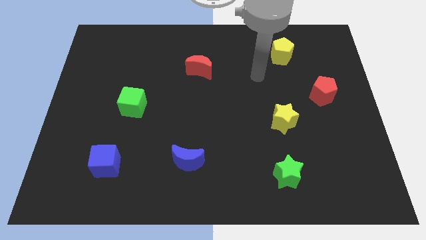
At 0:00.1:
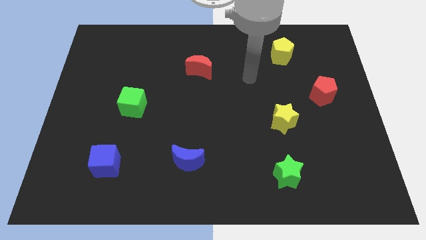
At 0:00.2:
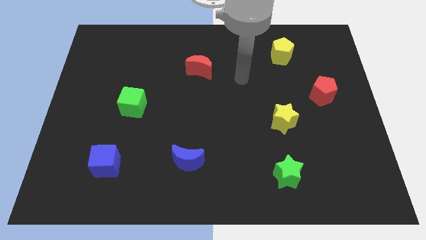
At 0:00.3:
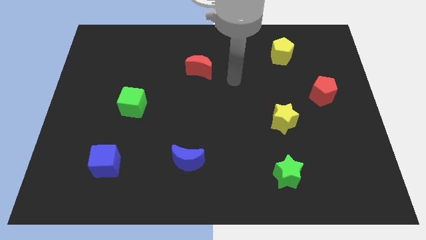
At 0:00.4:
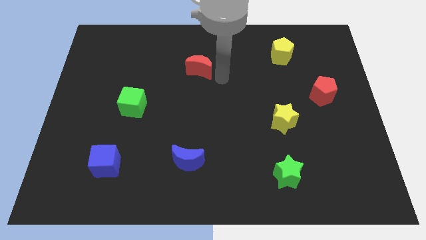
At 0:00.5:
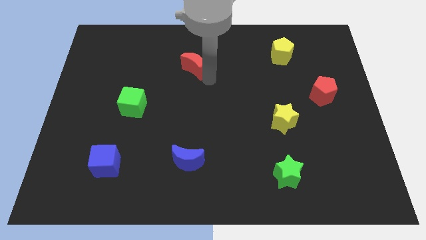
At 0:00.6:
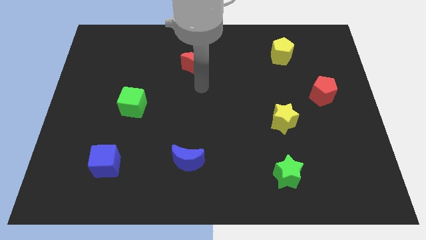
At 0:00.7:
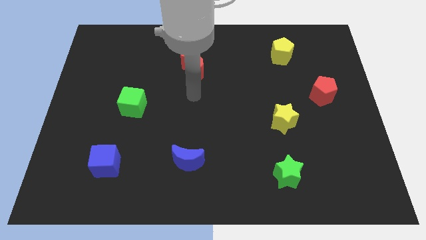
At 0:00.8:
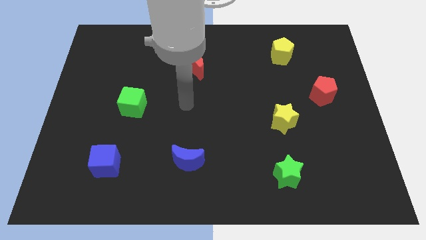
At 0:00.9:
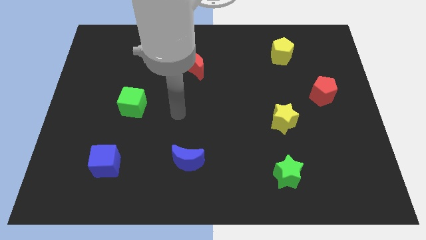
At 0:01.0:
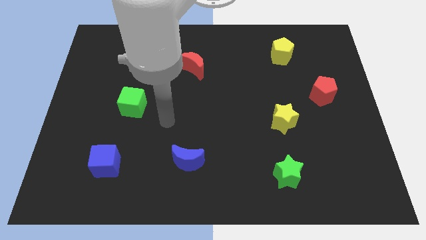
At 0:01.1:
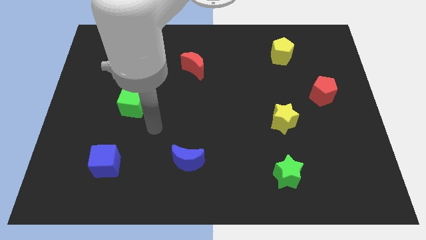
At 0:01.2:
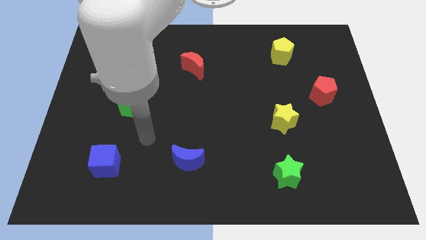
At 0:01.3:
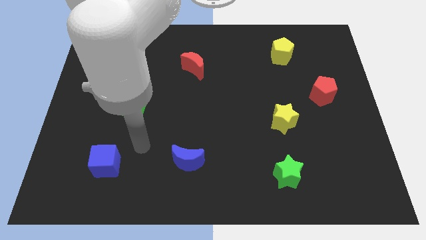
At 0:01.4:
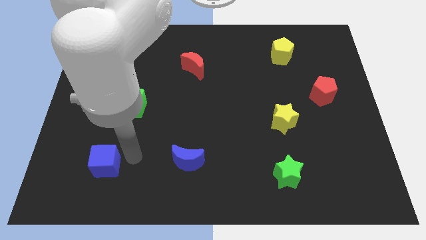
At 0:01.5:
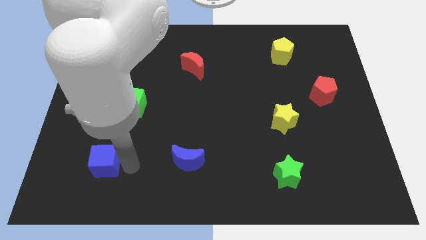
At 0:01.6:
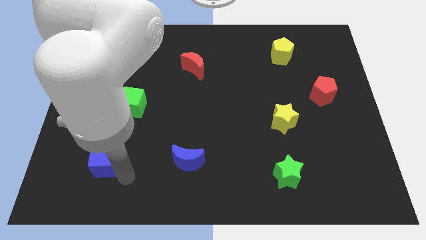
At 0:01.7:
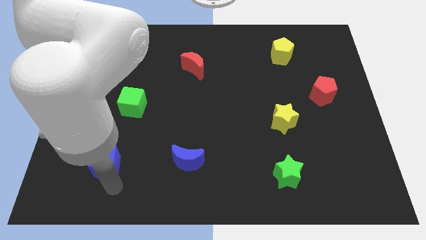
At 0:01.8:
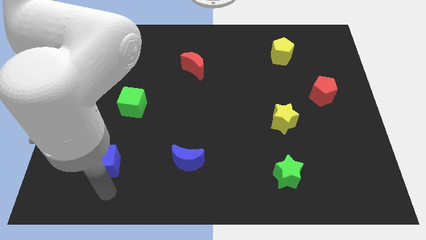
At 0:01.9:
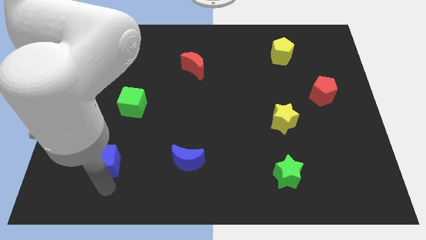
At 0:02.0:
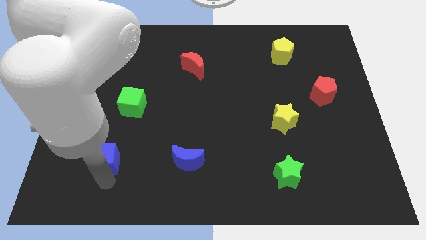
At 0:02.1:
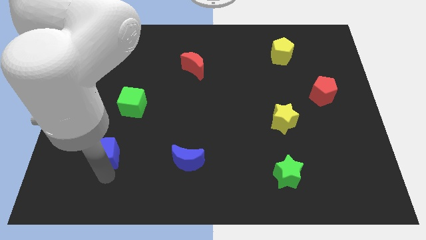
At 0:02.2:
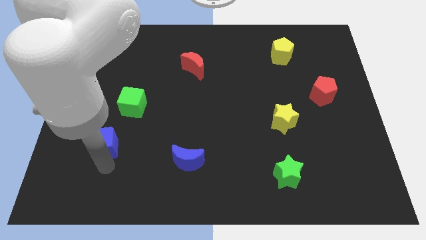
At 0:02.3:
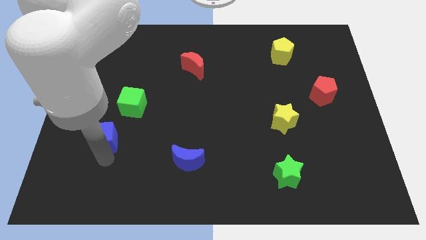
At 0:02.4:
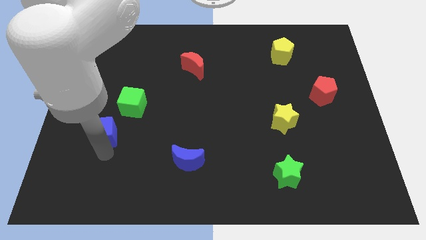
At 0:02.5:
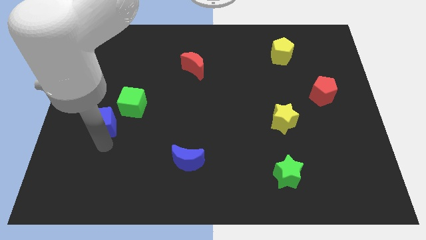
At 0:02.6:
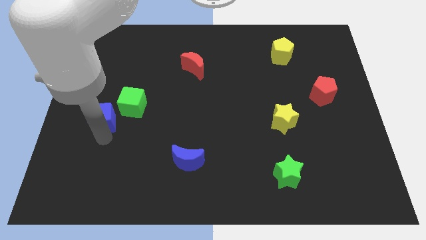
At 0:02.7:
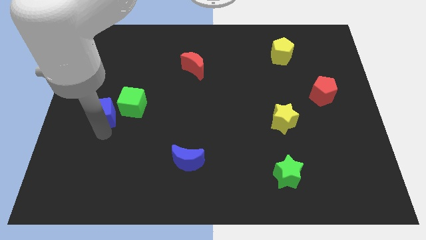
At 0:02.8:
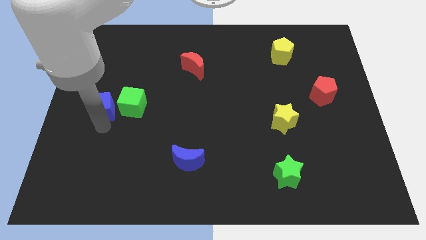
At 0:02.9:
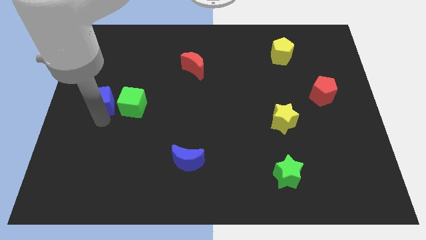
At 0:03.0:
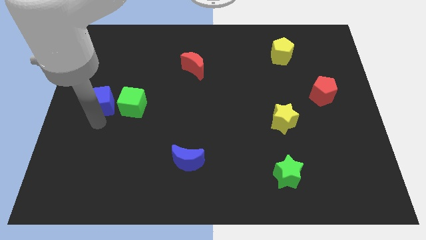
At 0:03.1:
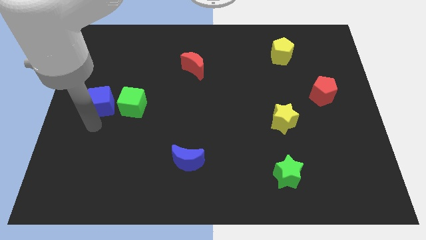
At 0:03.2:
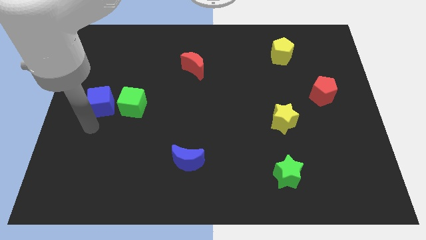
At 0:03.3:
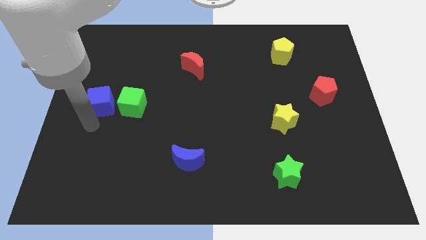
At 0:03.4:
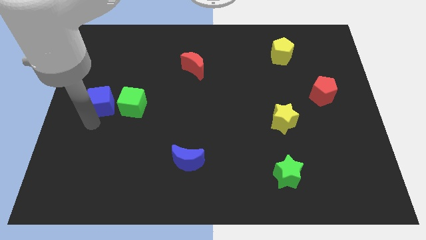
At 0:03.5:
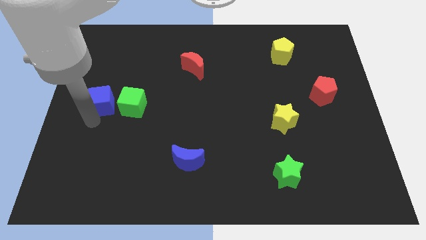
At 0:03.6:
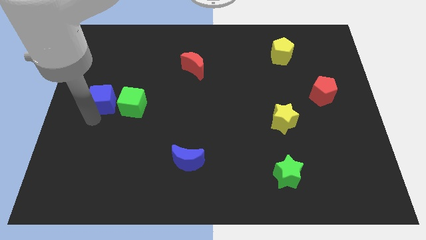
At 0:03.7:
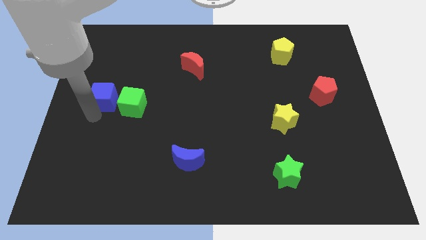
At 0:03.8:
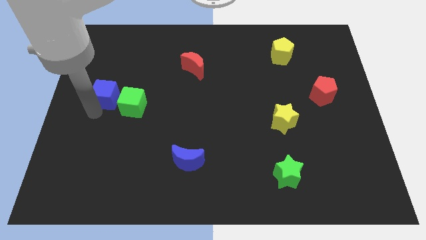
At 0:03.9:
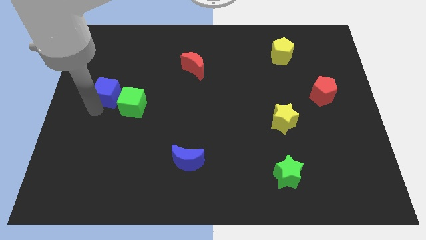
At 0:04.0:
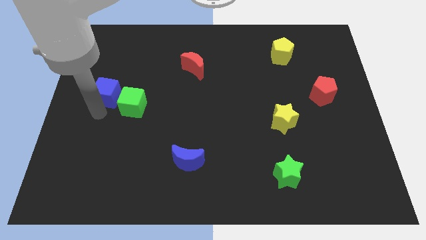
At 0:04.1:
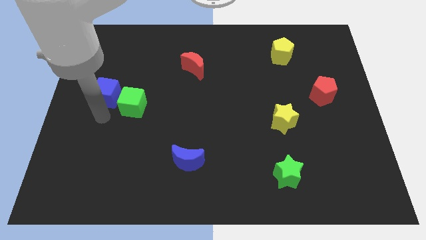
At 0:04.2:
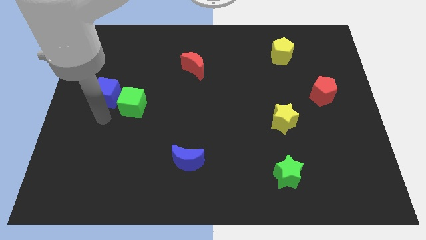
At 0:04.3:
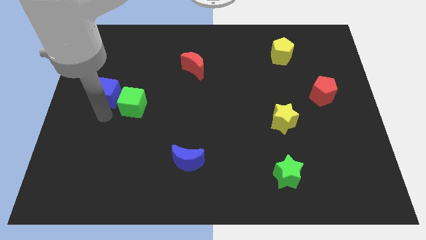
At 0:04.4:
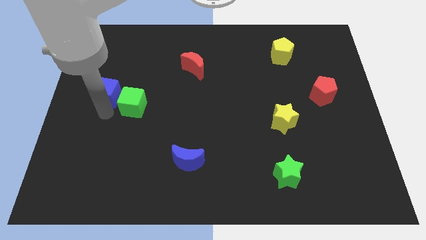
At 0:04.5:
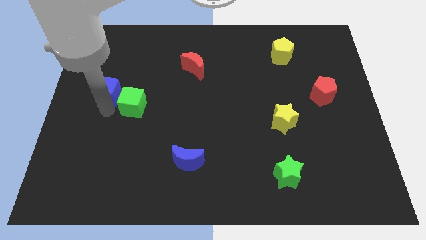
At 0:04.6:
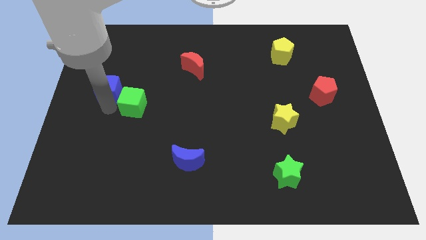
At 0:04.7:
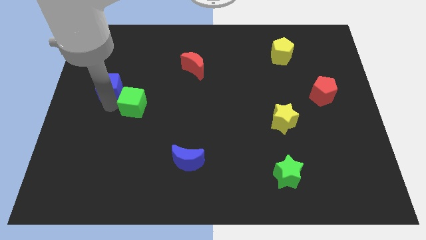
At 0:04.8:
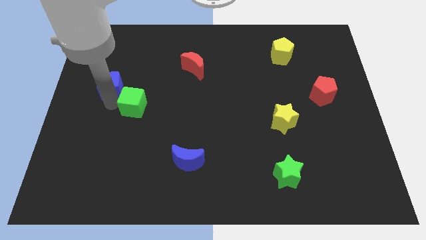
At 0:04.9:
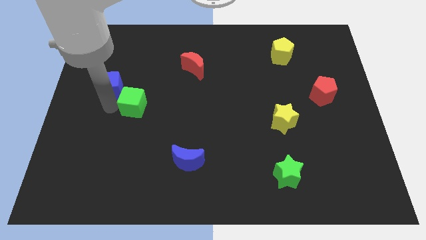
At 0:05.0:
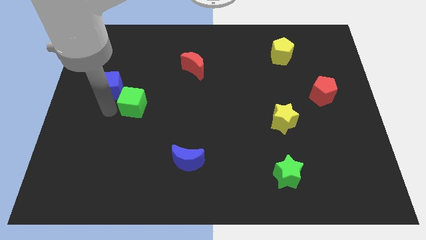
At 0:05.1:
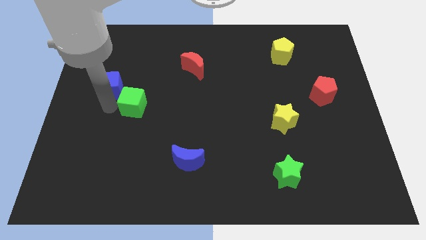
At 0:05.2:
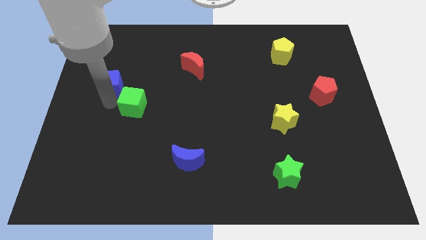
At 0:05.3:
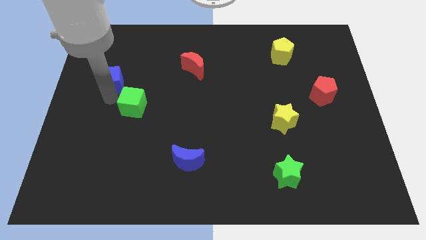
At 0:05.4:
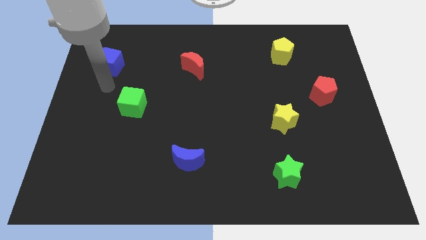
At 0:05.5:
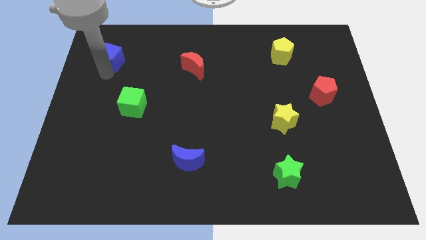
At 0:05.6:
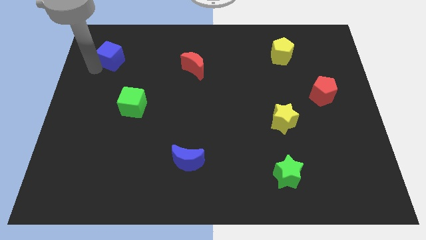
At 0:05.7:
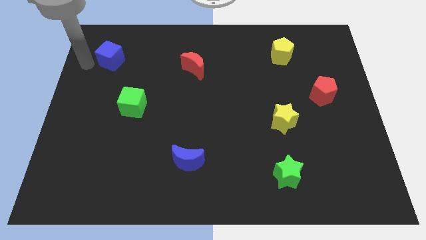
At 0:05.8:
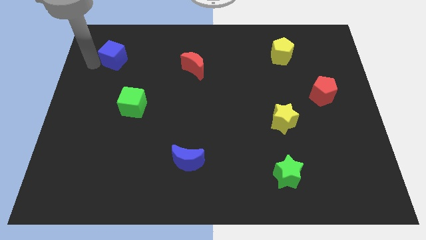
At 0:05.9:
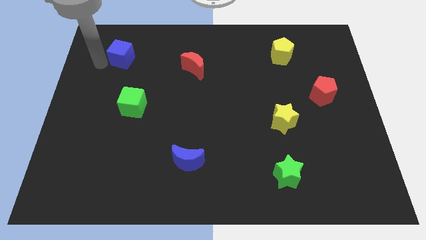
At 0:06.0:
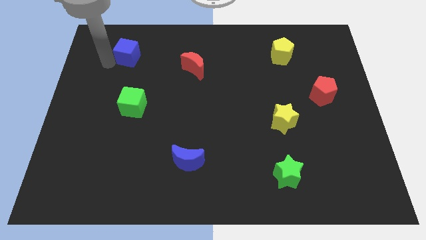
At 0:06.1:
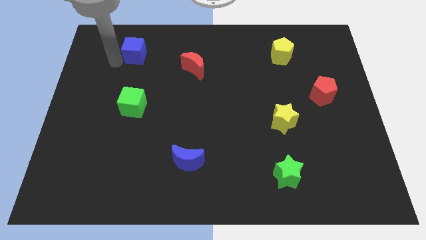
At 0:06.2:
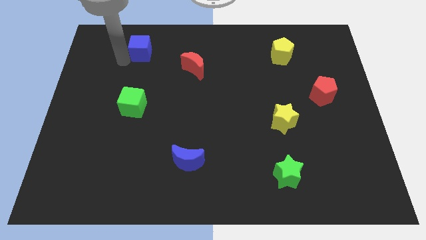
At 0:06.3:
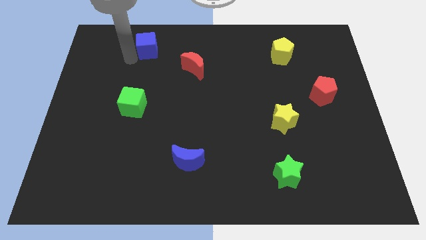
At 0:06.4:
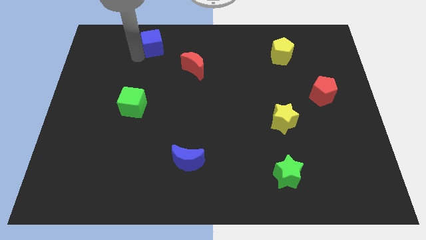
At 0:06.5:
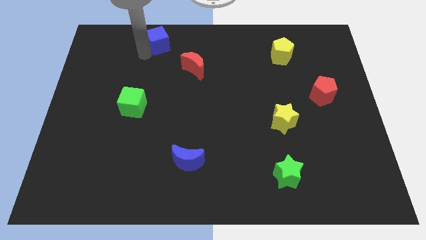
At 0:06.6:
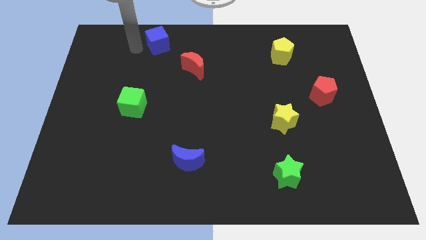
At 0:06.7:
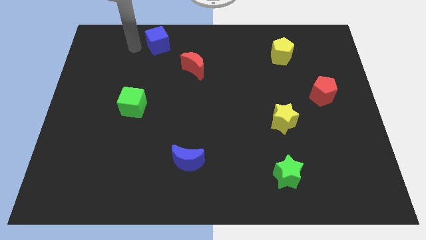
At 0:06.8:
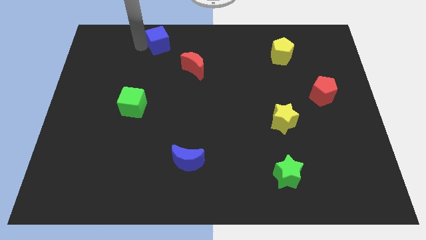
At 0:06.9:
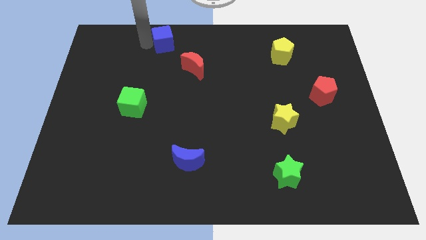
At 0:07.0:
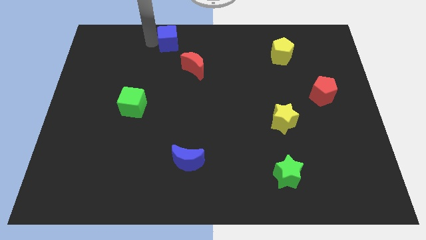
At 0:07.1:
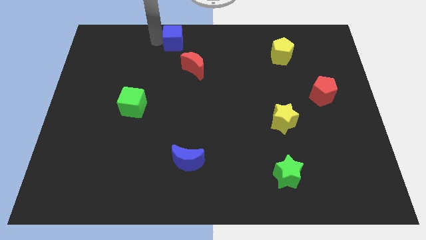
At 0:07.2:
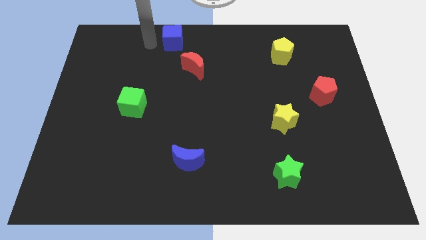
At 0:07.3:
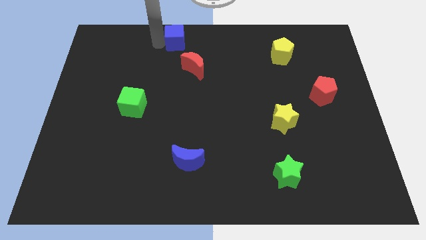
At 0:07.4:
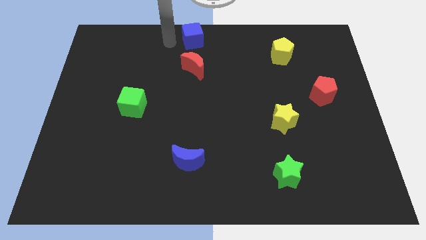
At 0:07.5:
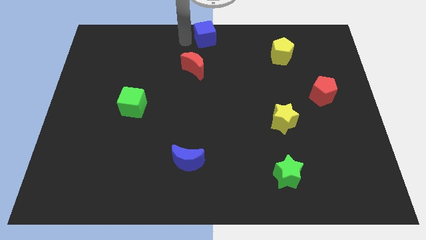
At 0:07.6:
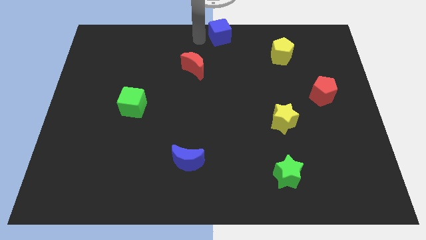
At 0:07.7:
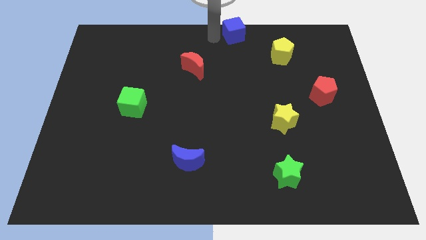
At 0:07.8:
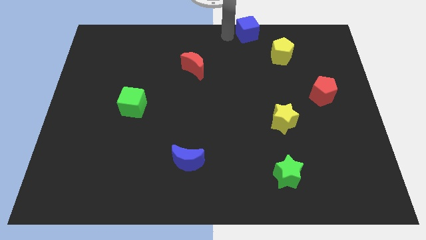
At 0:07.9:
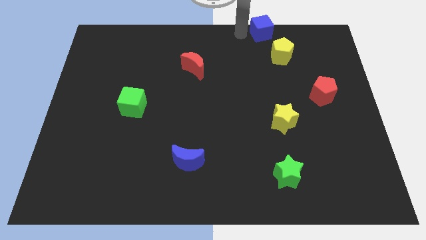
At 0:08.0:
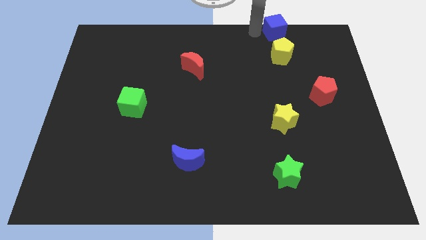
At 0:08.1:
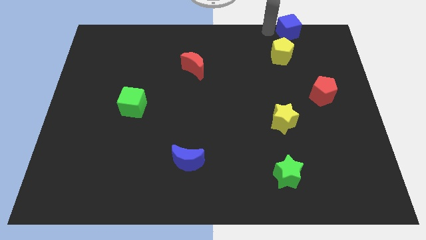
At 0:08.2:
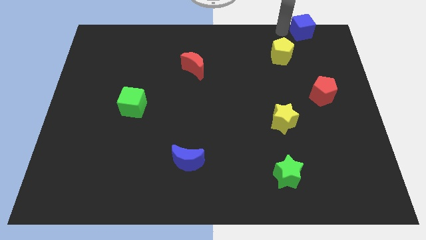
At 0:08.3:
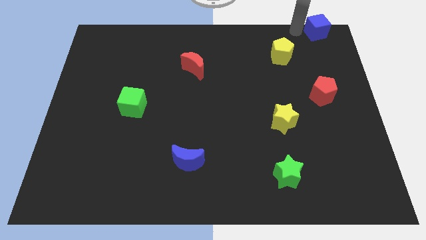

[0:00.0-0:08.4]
put the blue cube to the top right
